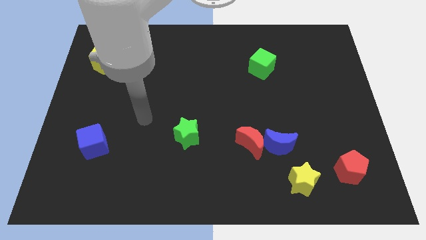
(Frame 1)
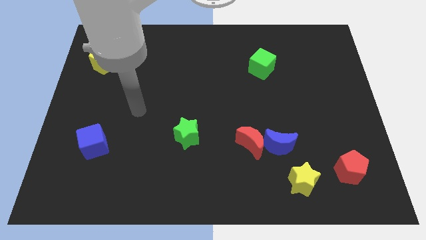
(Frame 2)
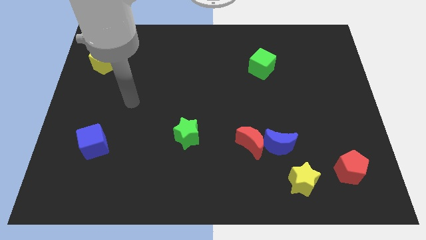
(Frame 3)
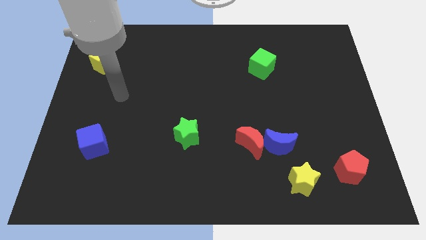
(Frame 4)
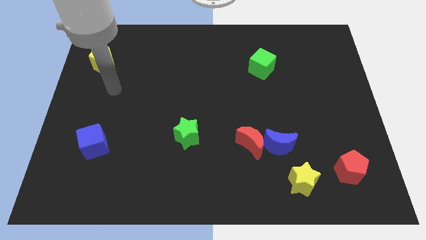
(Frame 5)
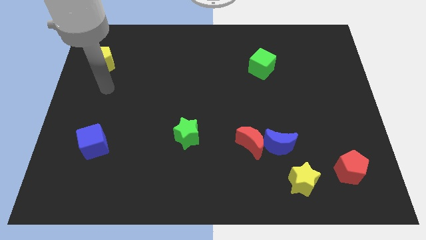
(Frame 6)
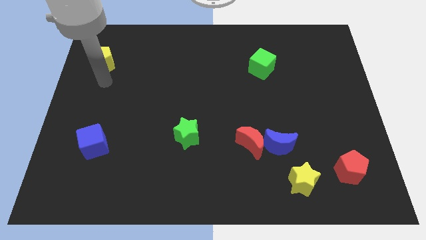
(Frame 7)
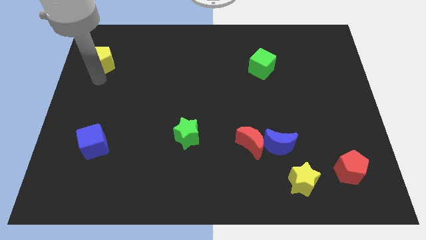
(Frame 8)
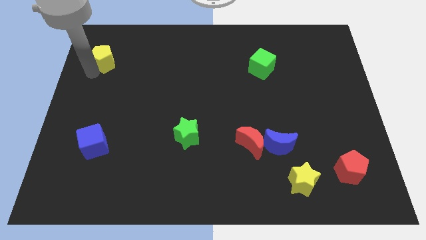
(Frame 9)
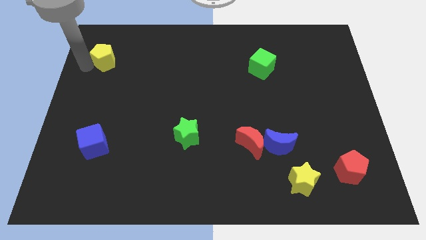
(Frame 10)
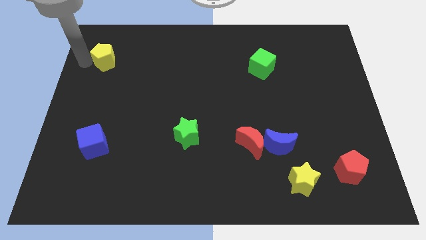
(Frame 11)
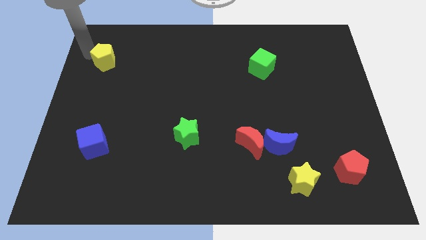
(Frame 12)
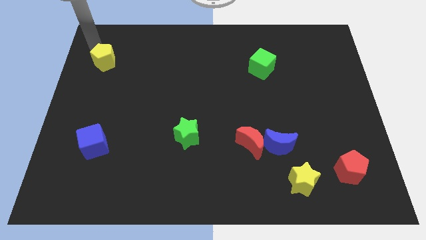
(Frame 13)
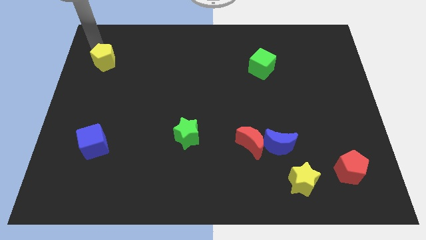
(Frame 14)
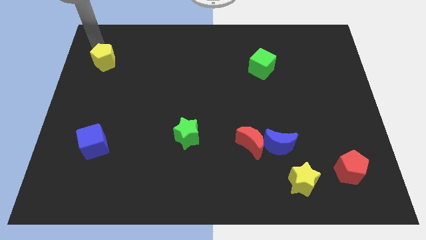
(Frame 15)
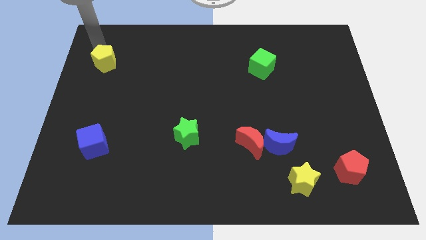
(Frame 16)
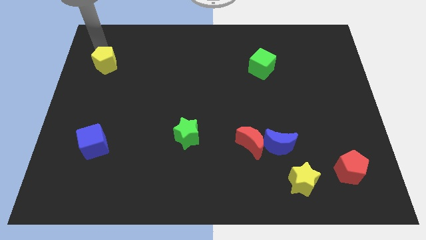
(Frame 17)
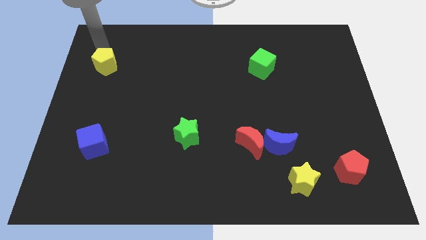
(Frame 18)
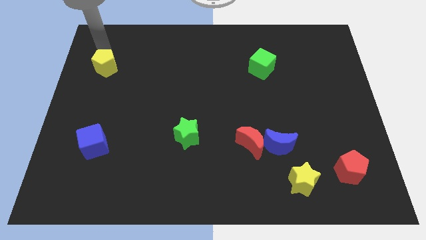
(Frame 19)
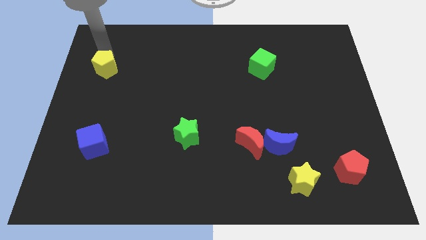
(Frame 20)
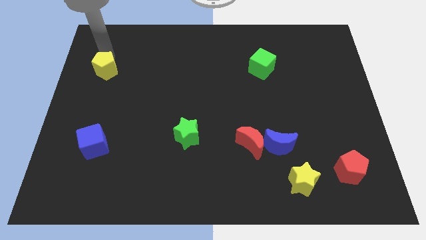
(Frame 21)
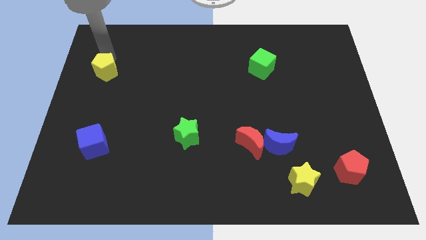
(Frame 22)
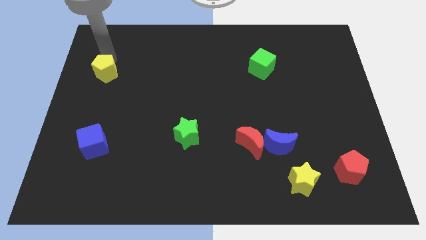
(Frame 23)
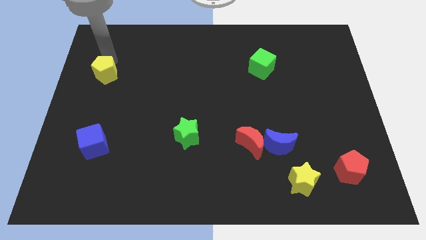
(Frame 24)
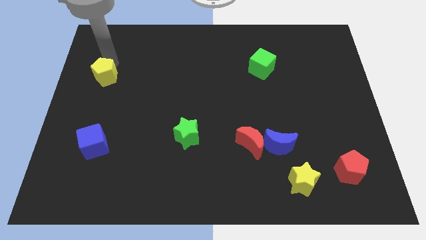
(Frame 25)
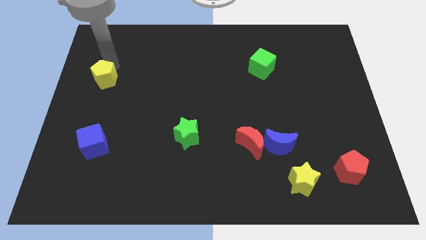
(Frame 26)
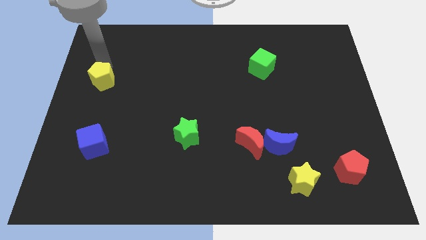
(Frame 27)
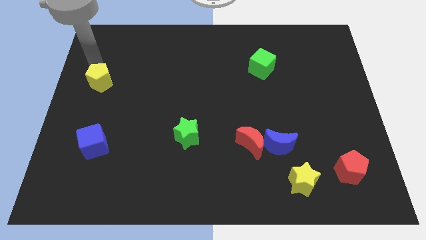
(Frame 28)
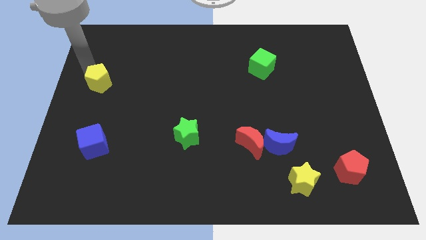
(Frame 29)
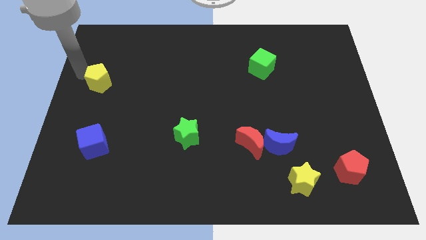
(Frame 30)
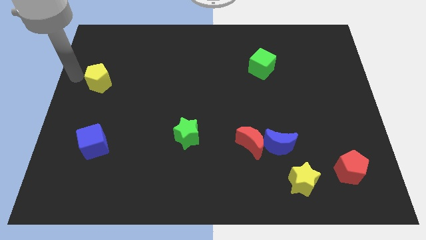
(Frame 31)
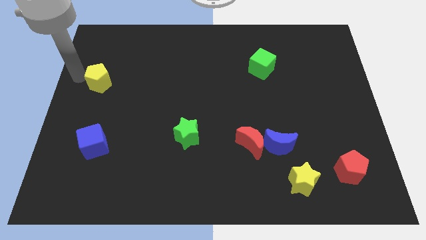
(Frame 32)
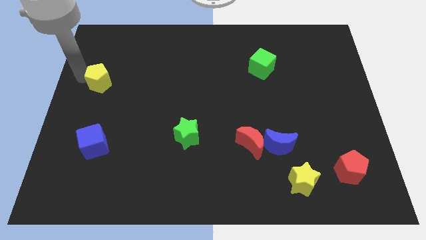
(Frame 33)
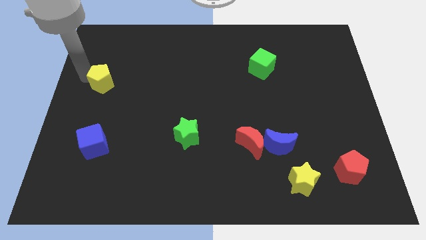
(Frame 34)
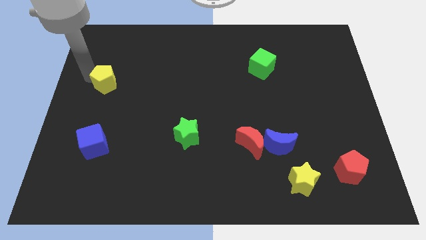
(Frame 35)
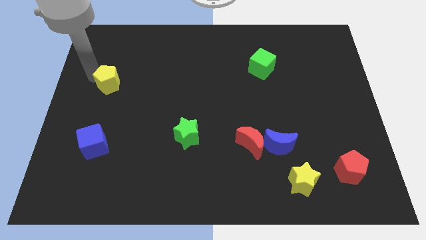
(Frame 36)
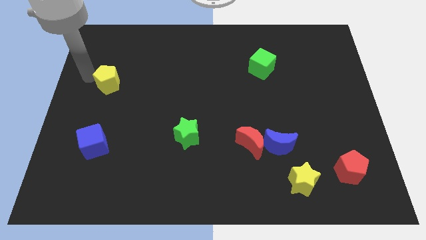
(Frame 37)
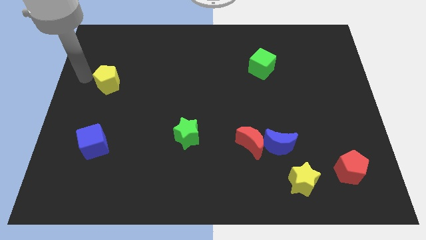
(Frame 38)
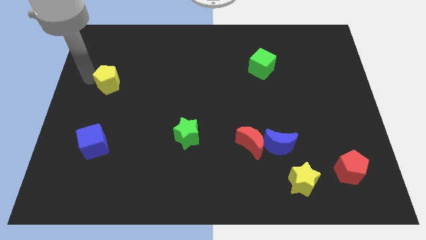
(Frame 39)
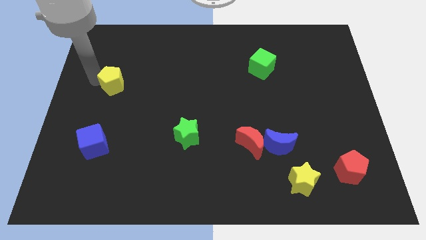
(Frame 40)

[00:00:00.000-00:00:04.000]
slightly move the yellow pentagon down and to the right diagonally

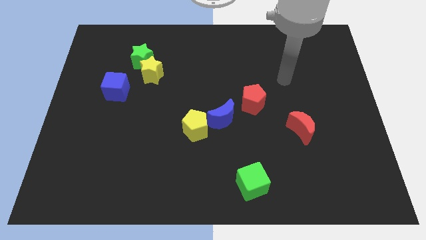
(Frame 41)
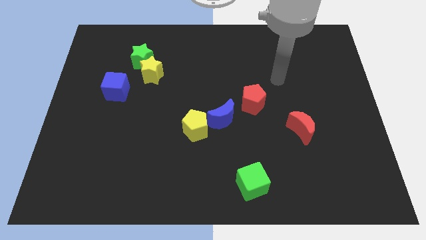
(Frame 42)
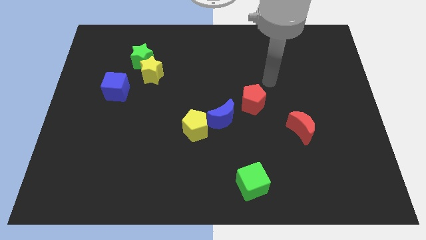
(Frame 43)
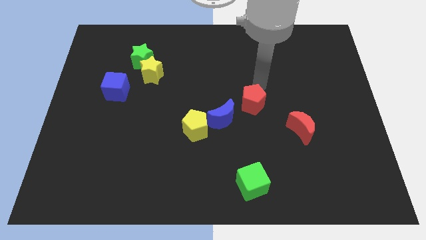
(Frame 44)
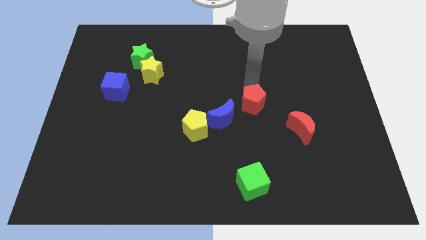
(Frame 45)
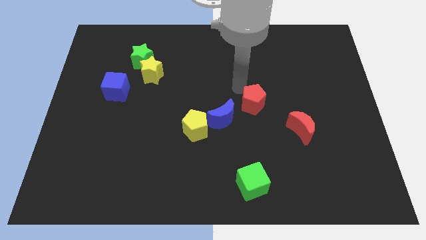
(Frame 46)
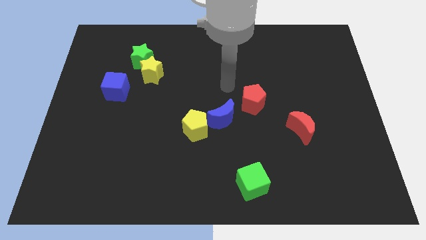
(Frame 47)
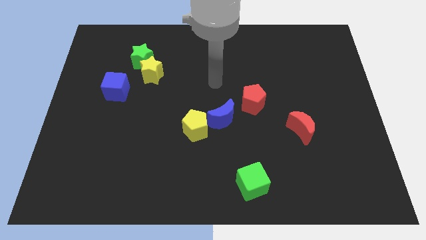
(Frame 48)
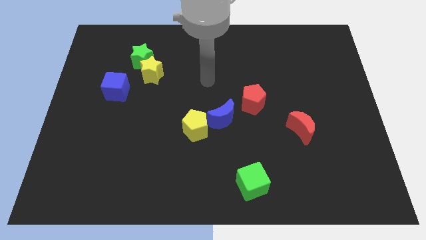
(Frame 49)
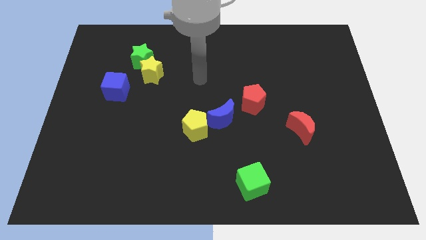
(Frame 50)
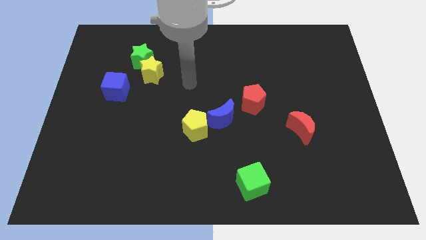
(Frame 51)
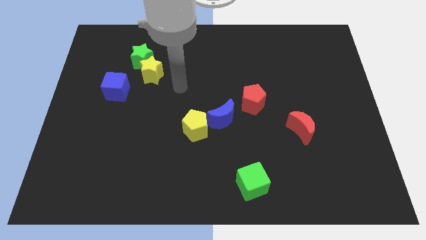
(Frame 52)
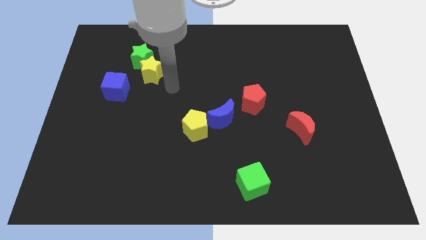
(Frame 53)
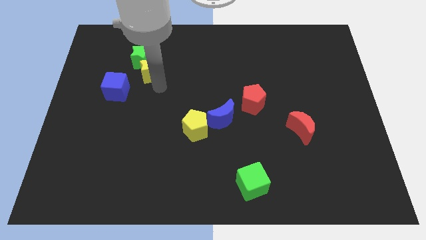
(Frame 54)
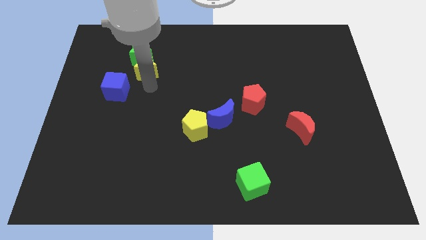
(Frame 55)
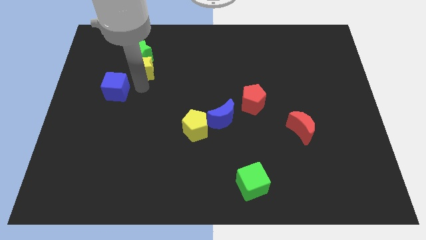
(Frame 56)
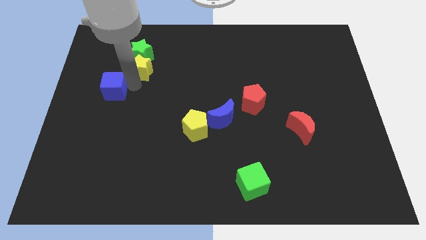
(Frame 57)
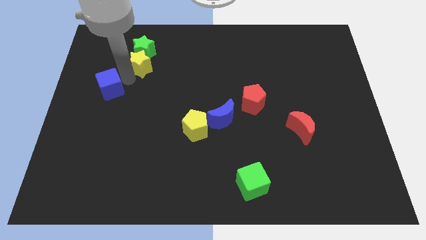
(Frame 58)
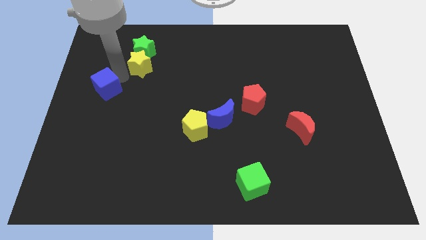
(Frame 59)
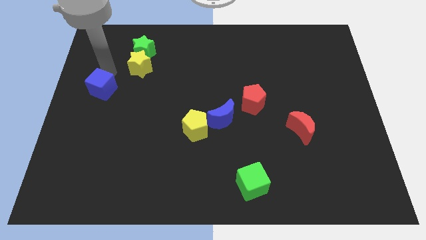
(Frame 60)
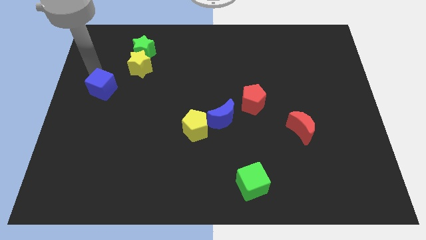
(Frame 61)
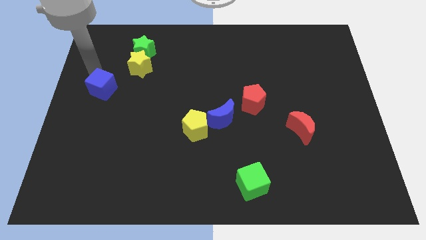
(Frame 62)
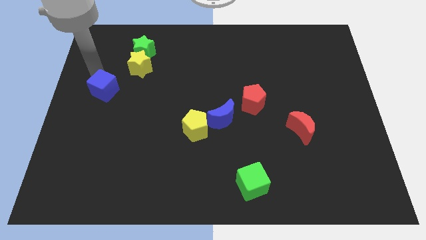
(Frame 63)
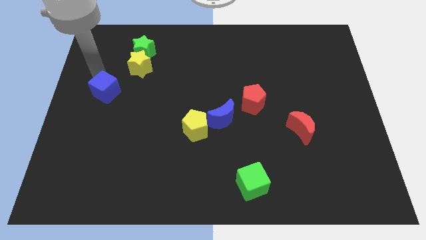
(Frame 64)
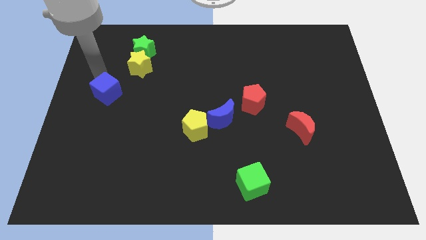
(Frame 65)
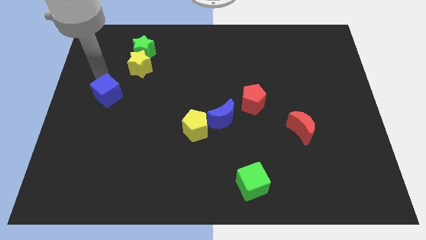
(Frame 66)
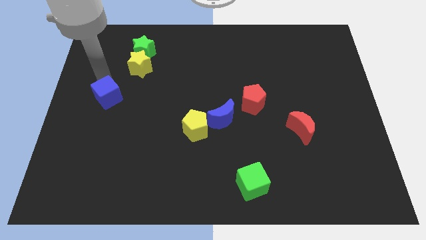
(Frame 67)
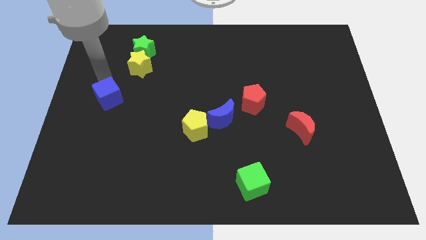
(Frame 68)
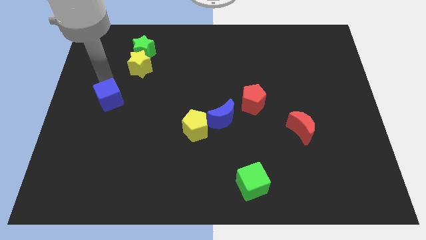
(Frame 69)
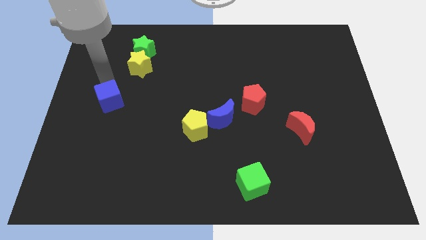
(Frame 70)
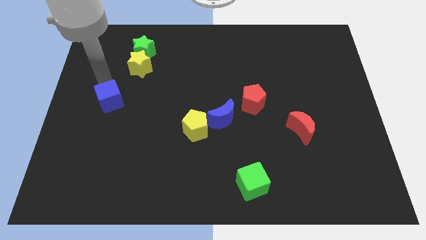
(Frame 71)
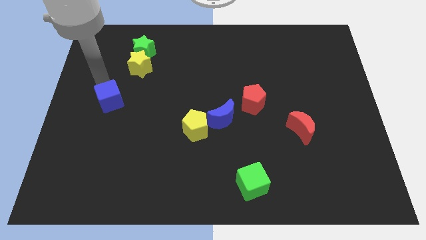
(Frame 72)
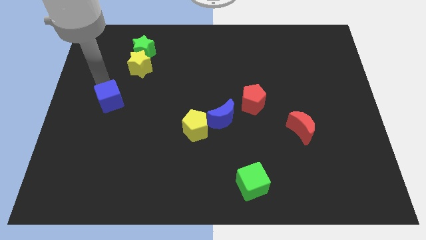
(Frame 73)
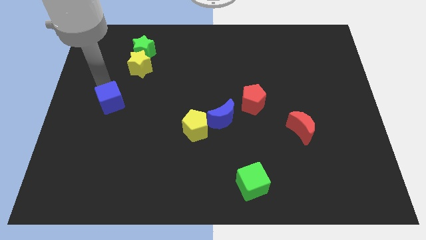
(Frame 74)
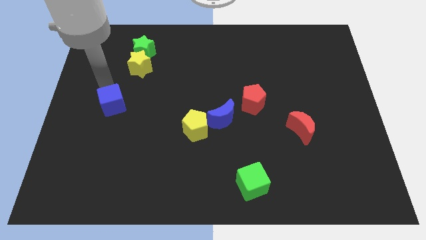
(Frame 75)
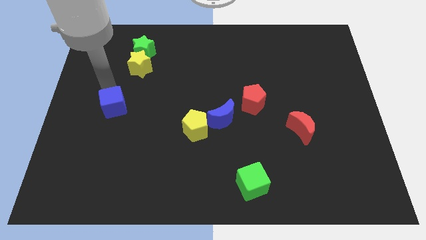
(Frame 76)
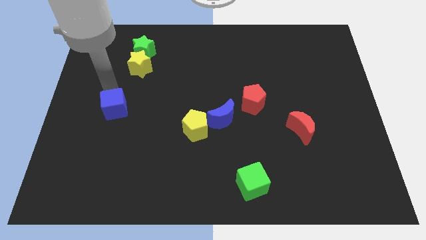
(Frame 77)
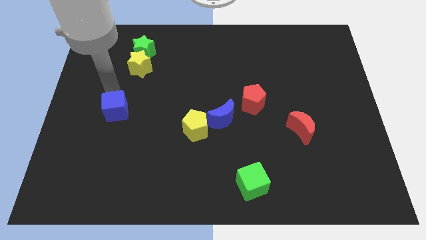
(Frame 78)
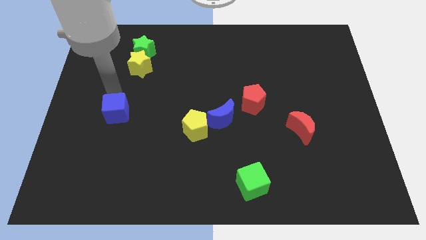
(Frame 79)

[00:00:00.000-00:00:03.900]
push the blue cube a bit downwards
